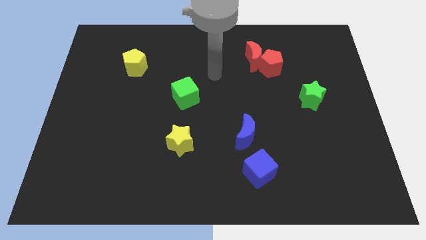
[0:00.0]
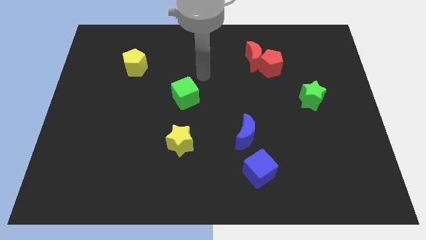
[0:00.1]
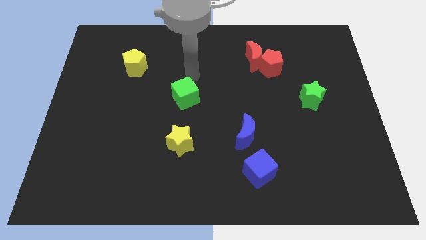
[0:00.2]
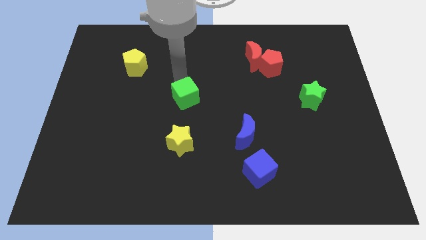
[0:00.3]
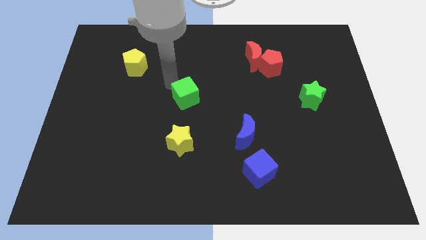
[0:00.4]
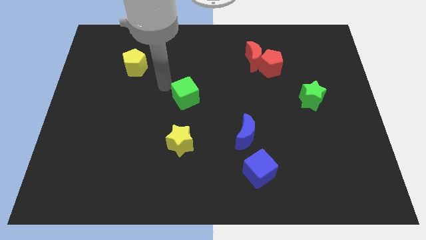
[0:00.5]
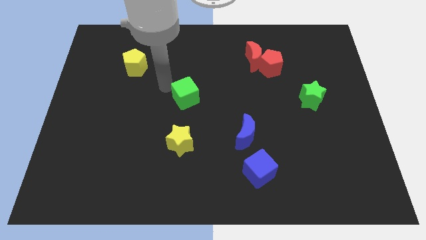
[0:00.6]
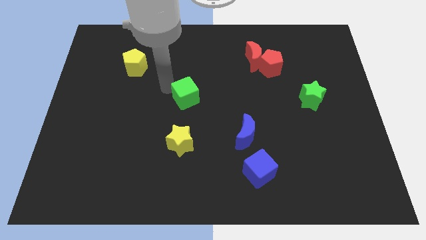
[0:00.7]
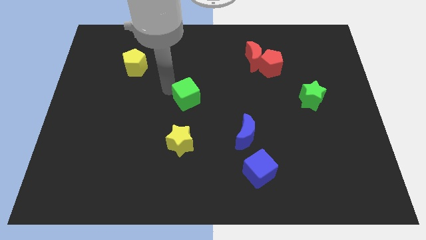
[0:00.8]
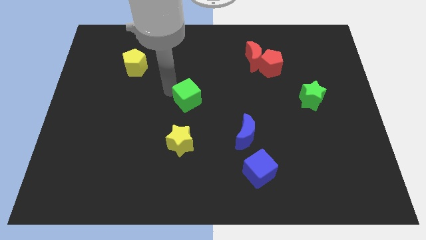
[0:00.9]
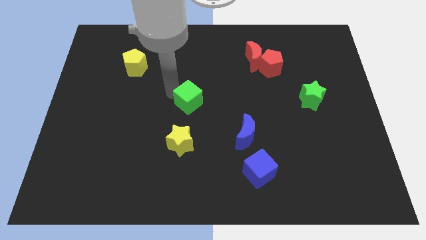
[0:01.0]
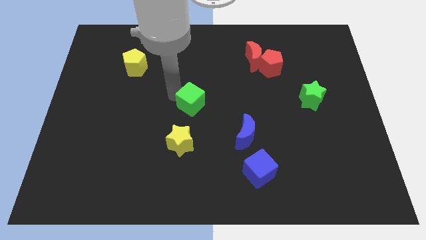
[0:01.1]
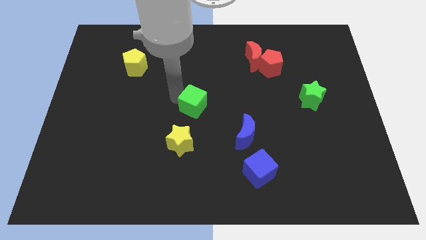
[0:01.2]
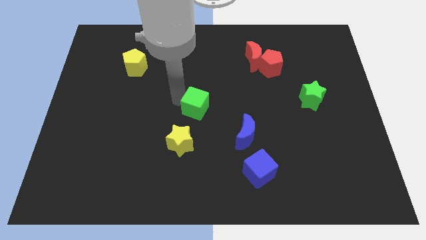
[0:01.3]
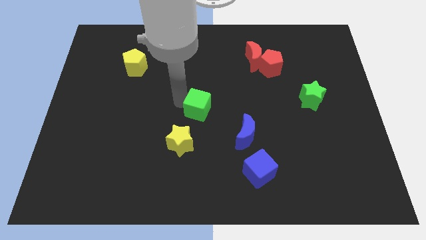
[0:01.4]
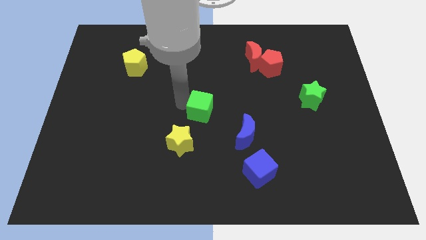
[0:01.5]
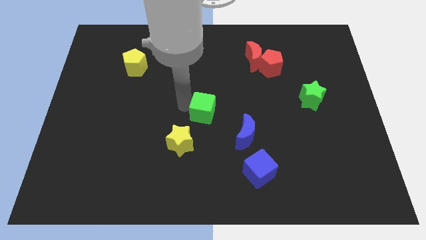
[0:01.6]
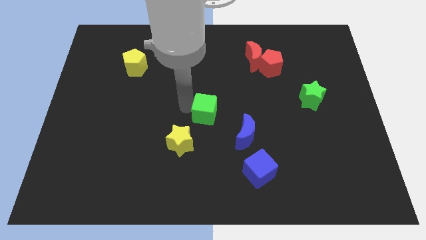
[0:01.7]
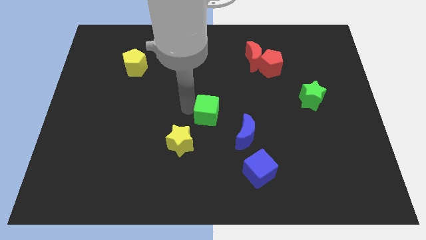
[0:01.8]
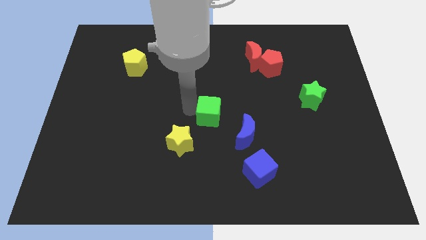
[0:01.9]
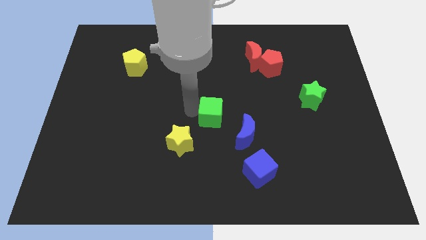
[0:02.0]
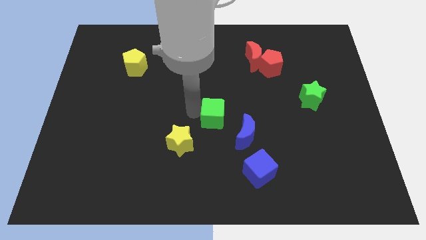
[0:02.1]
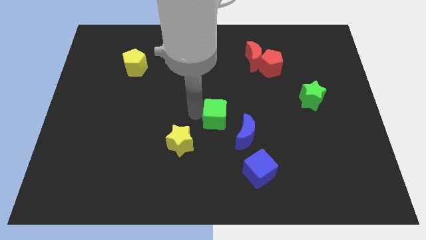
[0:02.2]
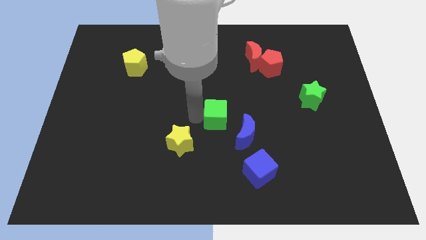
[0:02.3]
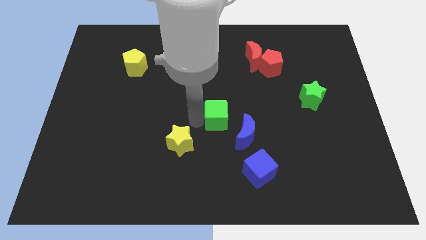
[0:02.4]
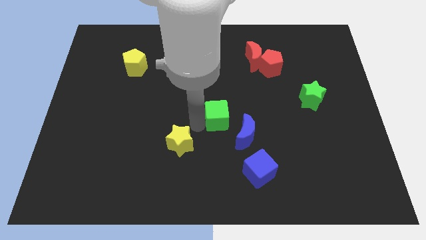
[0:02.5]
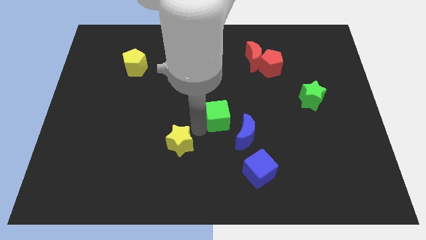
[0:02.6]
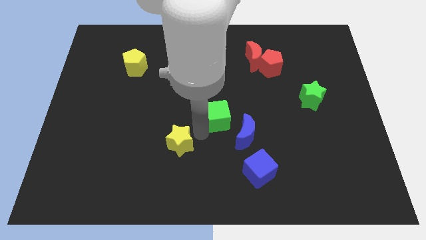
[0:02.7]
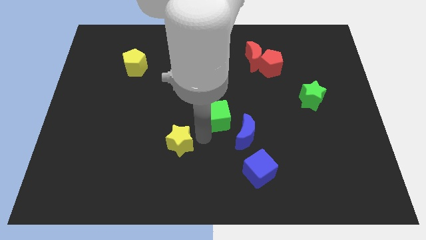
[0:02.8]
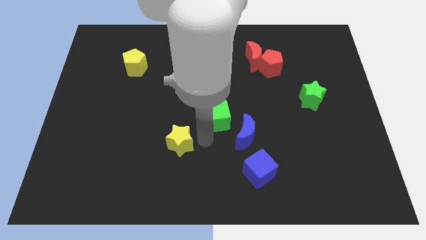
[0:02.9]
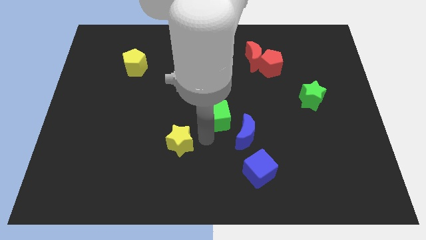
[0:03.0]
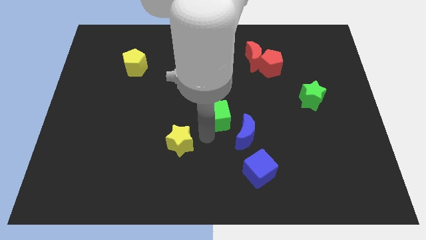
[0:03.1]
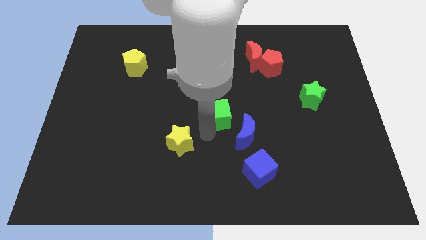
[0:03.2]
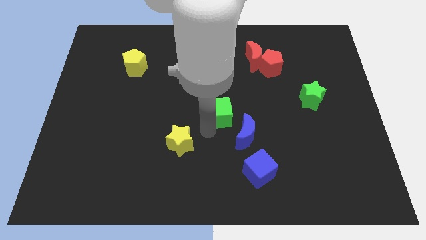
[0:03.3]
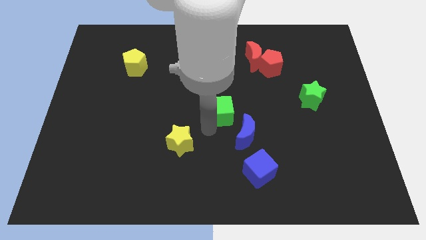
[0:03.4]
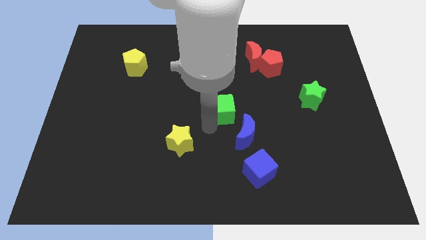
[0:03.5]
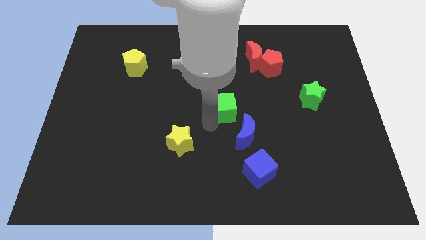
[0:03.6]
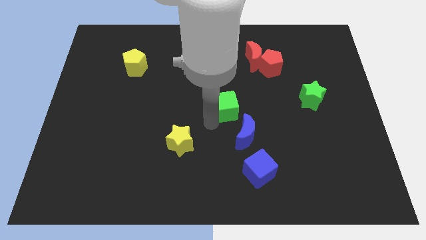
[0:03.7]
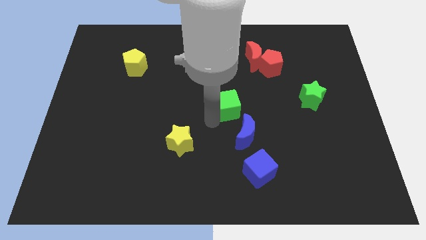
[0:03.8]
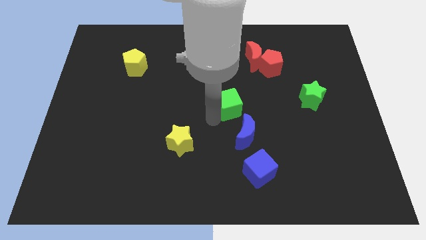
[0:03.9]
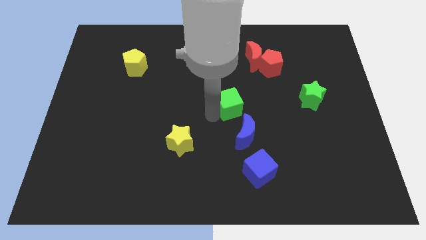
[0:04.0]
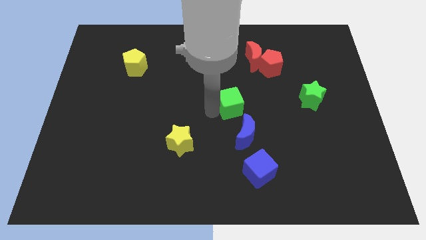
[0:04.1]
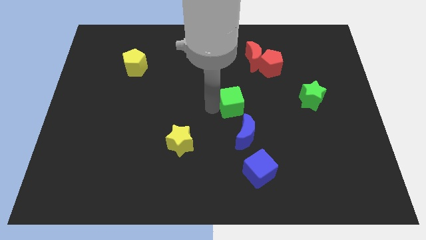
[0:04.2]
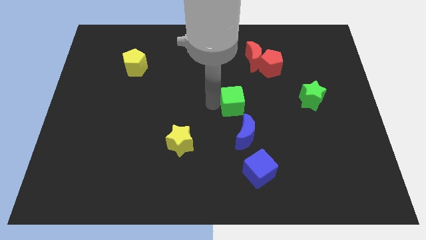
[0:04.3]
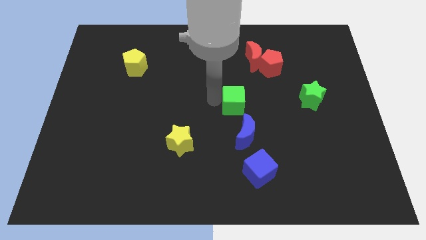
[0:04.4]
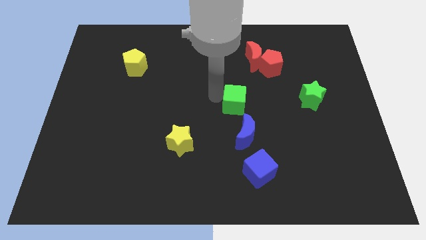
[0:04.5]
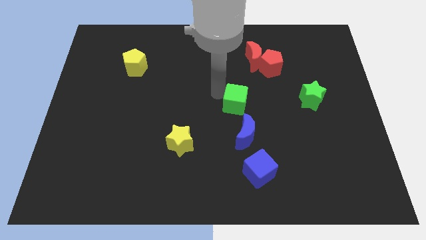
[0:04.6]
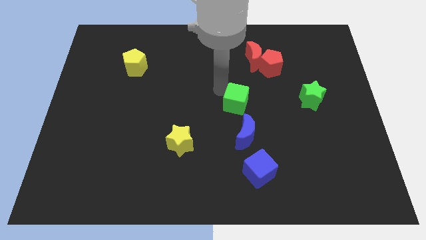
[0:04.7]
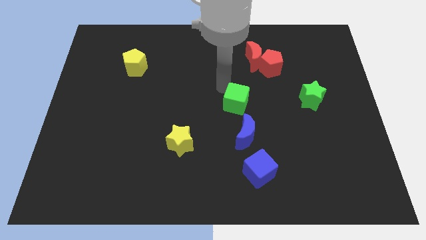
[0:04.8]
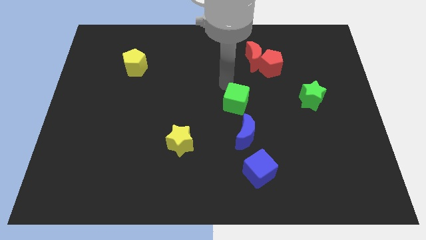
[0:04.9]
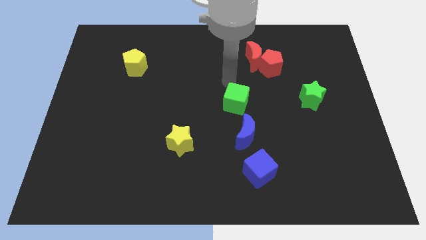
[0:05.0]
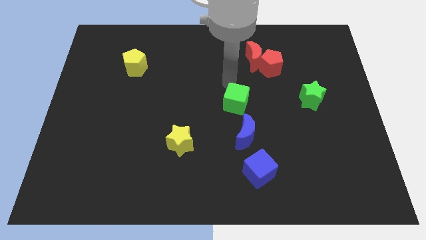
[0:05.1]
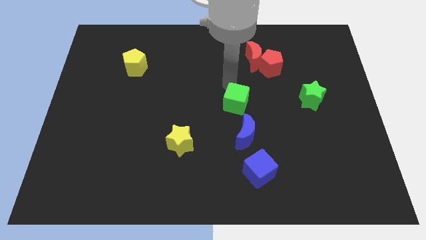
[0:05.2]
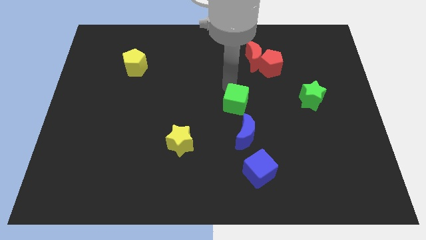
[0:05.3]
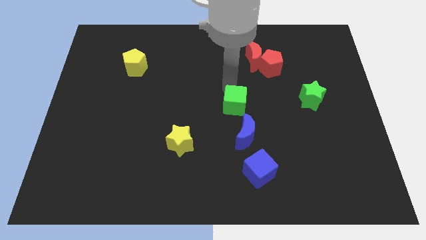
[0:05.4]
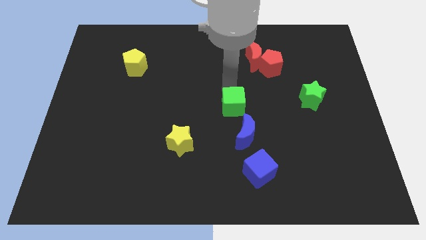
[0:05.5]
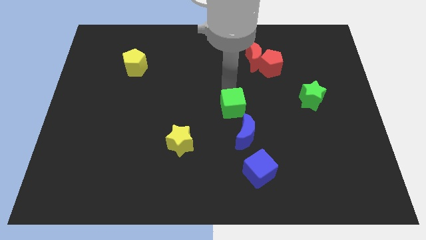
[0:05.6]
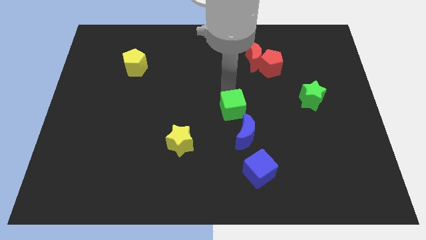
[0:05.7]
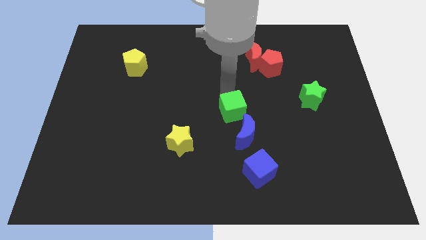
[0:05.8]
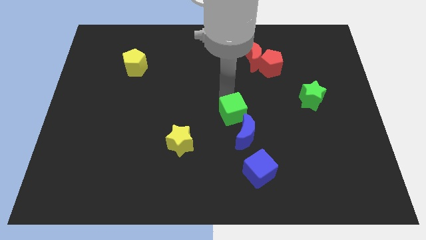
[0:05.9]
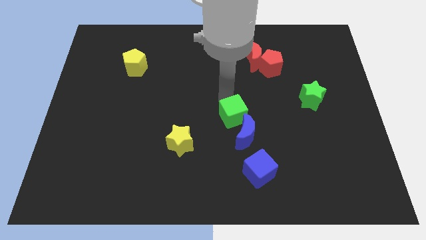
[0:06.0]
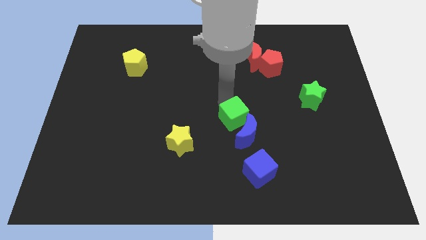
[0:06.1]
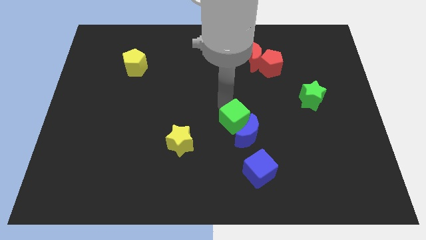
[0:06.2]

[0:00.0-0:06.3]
move the green cube above the blue cube
